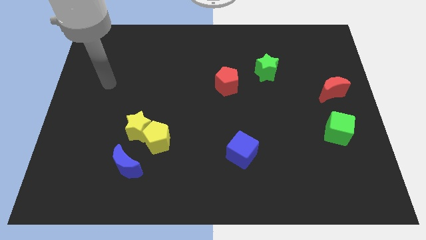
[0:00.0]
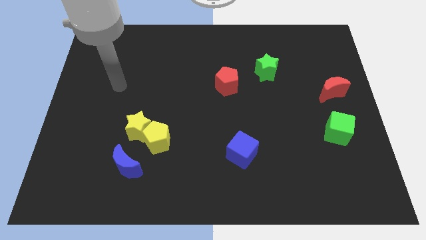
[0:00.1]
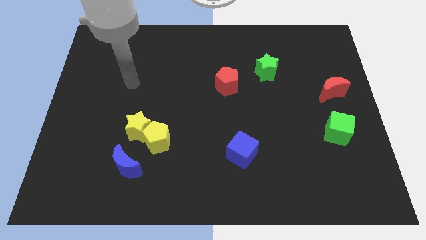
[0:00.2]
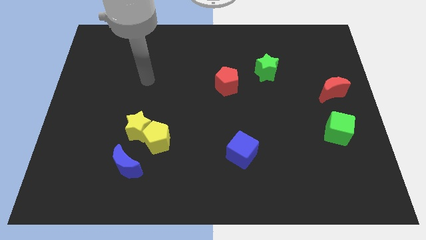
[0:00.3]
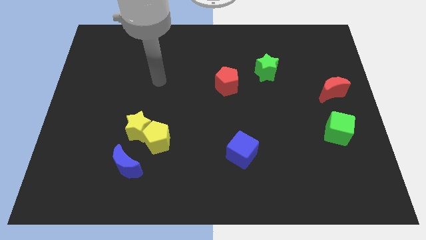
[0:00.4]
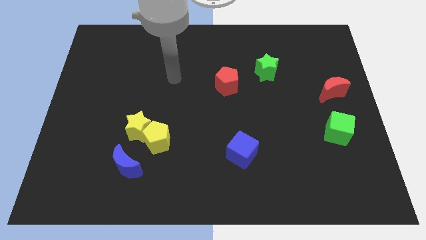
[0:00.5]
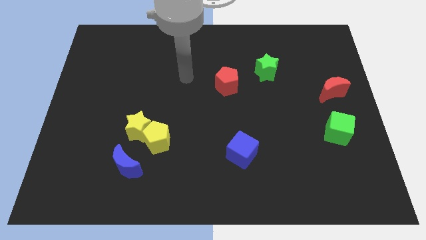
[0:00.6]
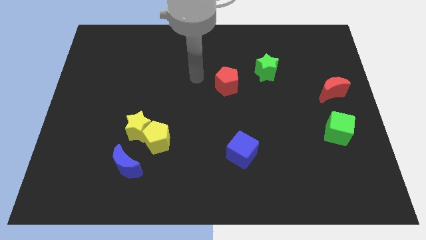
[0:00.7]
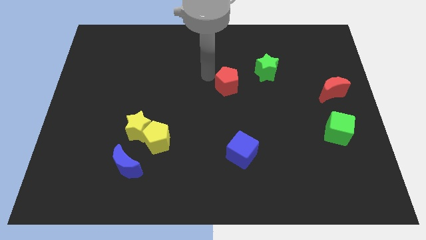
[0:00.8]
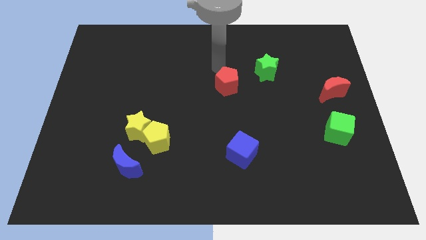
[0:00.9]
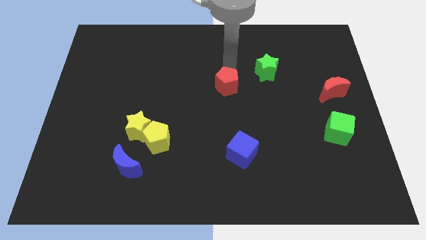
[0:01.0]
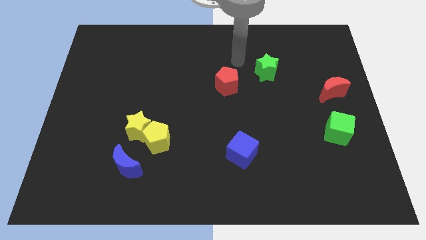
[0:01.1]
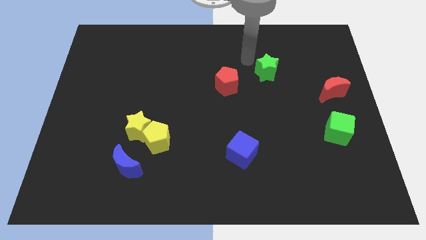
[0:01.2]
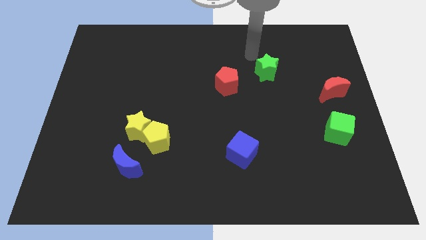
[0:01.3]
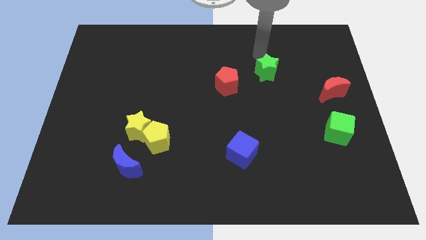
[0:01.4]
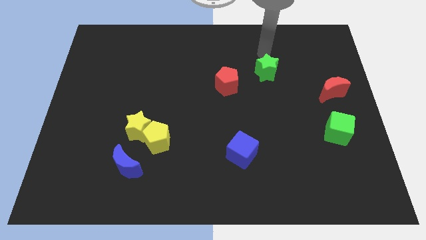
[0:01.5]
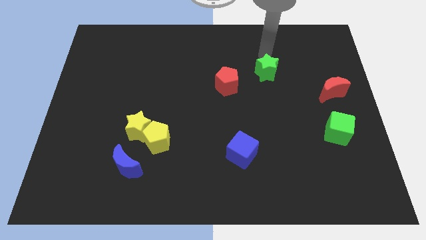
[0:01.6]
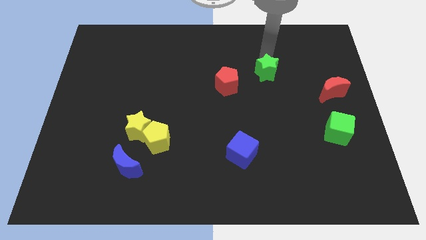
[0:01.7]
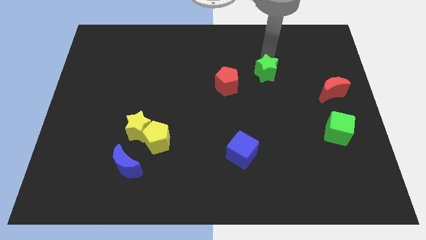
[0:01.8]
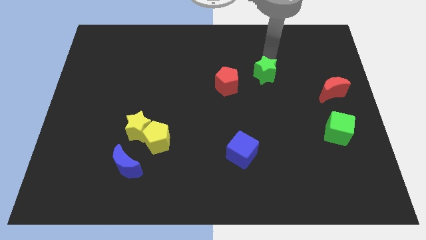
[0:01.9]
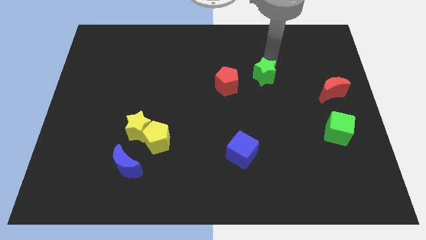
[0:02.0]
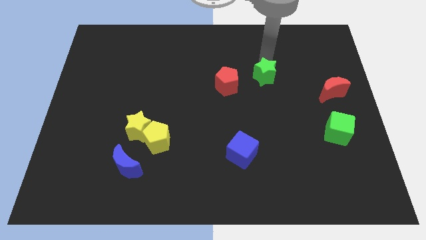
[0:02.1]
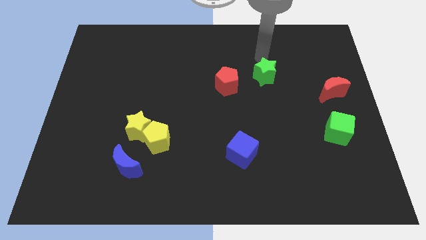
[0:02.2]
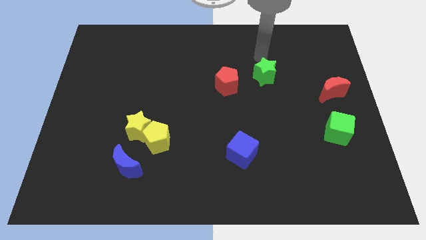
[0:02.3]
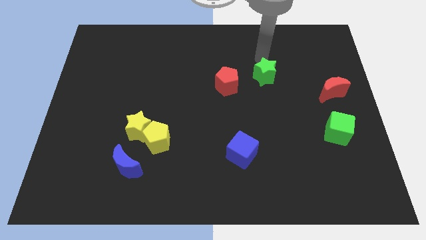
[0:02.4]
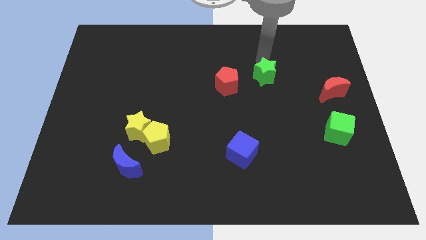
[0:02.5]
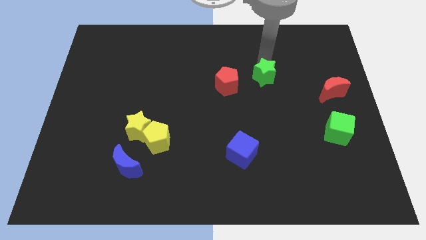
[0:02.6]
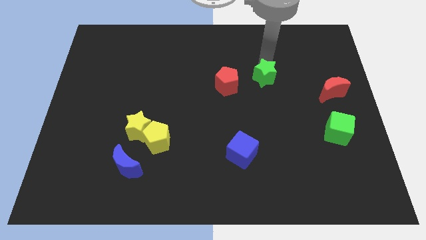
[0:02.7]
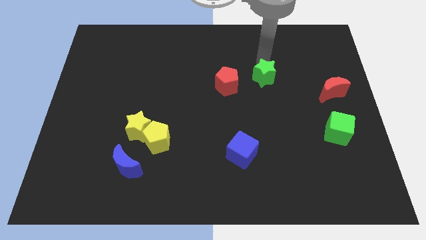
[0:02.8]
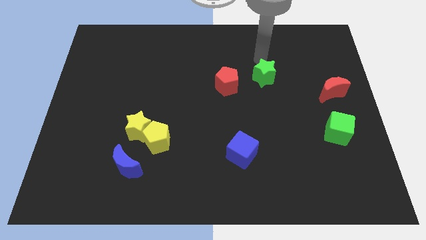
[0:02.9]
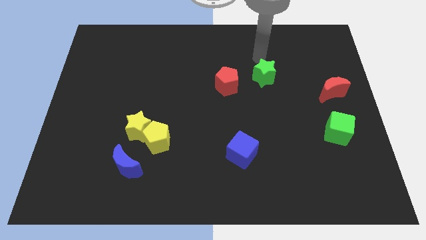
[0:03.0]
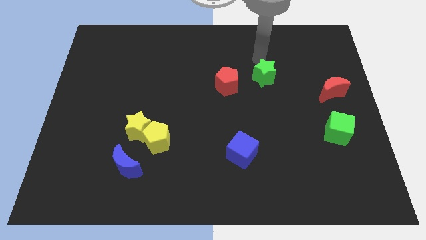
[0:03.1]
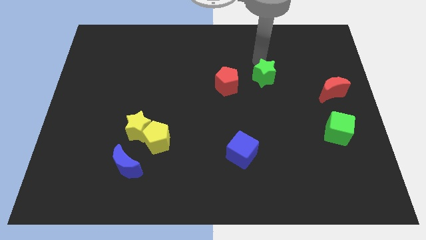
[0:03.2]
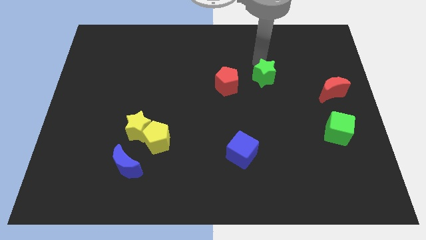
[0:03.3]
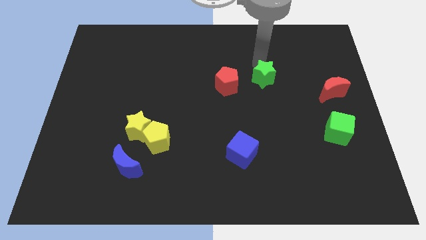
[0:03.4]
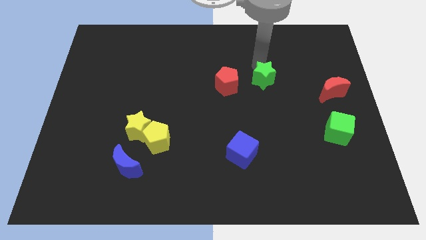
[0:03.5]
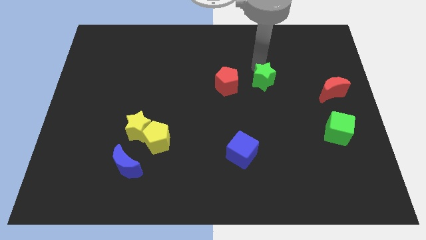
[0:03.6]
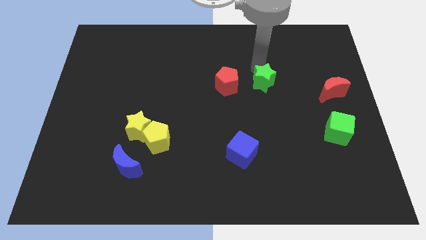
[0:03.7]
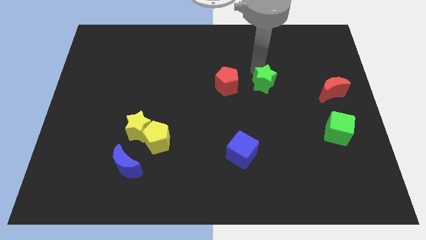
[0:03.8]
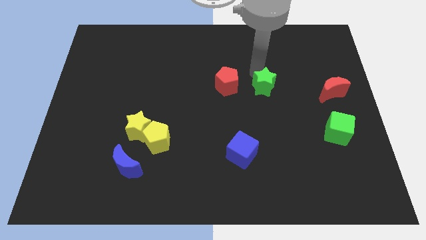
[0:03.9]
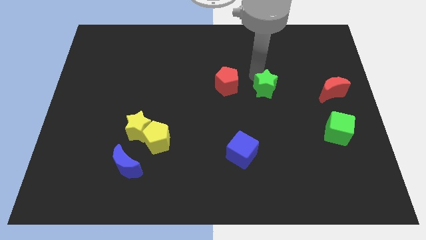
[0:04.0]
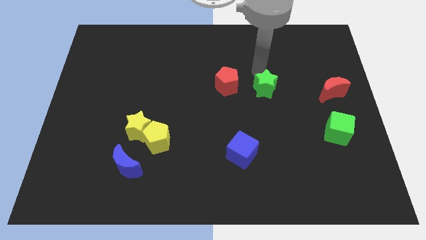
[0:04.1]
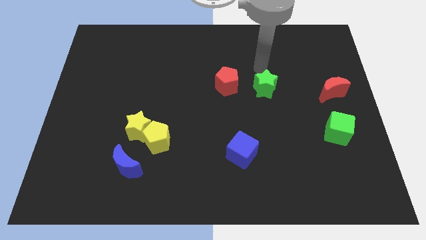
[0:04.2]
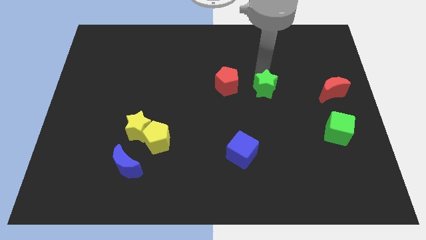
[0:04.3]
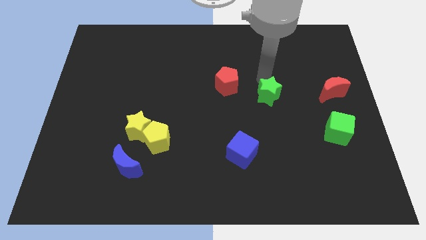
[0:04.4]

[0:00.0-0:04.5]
move the green star a little downwards

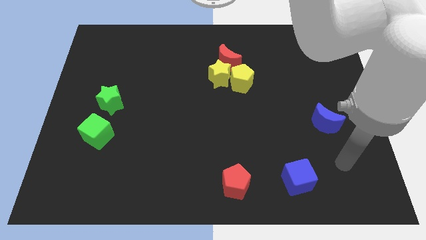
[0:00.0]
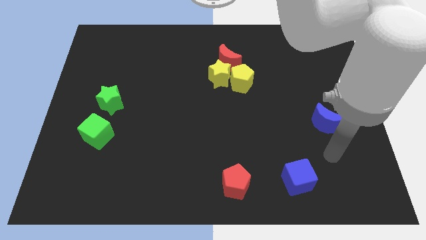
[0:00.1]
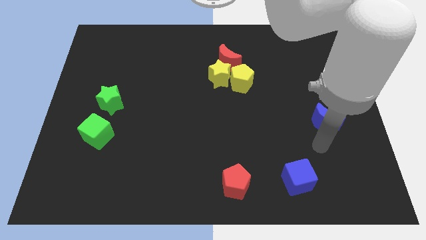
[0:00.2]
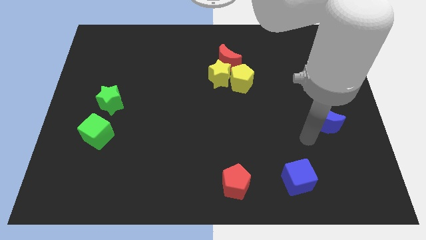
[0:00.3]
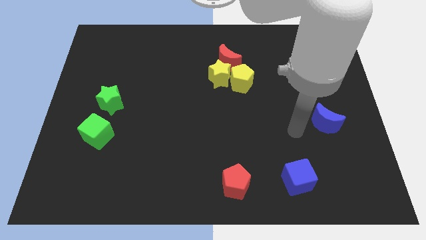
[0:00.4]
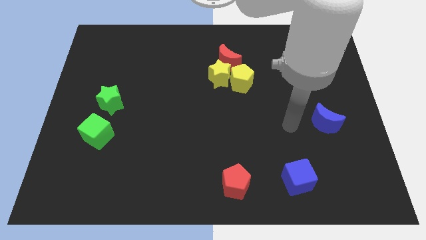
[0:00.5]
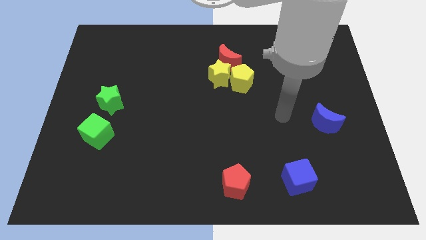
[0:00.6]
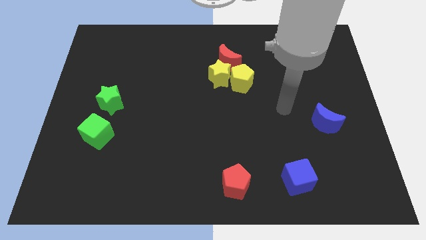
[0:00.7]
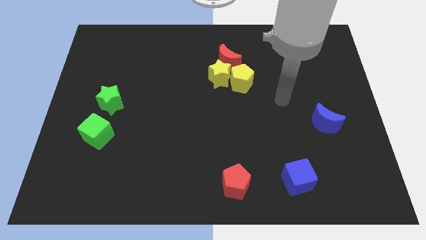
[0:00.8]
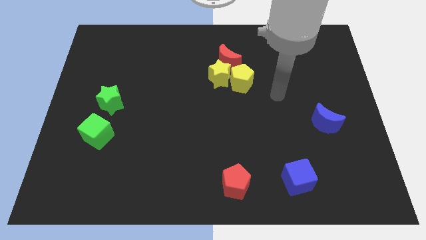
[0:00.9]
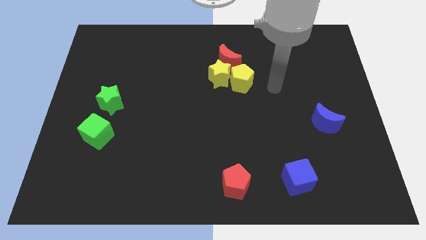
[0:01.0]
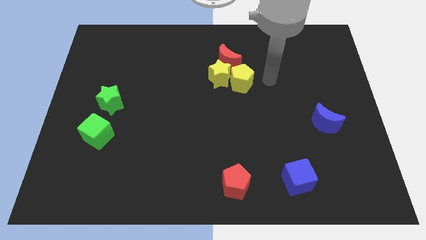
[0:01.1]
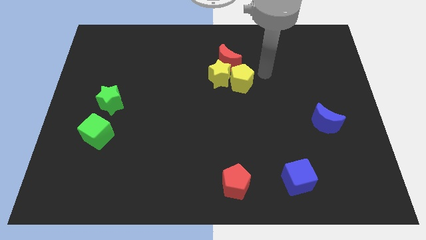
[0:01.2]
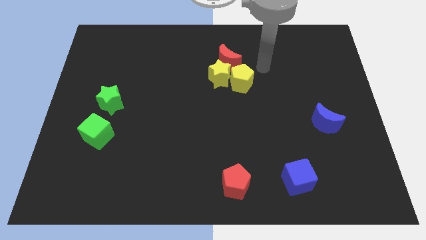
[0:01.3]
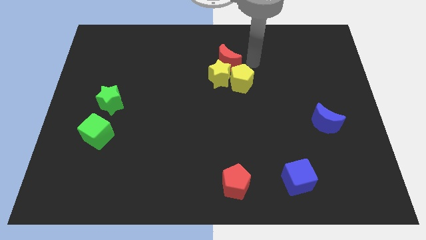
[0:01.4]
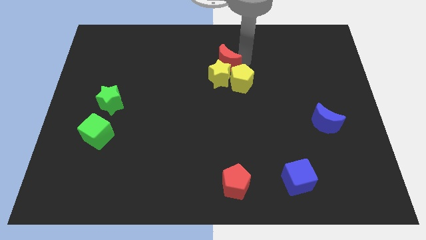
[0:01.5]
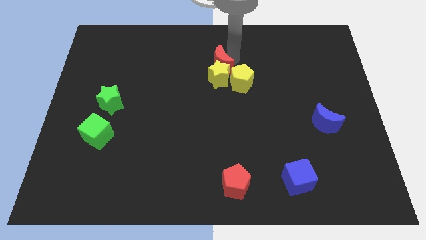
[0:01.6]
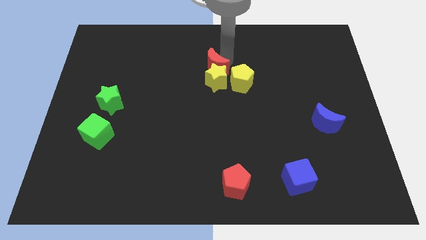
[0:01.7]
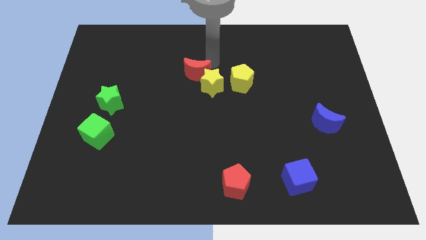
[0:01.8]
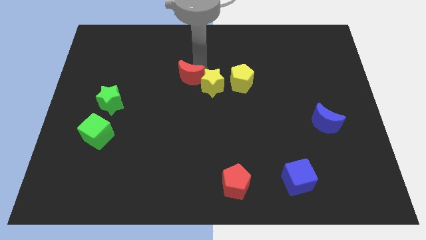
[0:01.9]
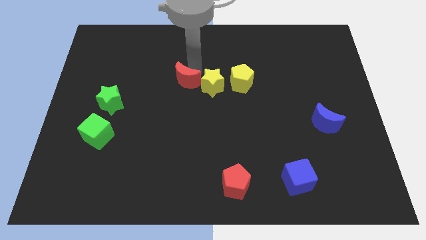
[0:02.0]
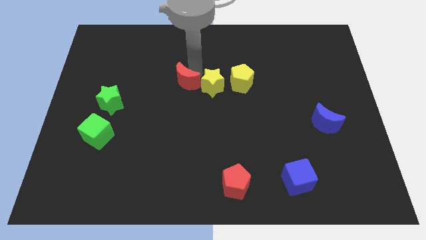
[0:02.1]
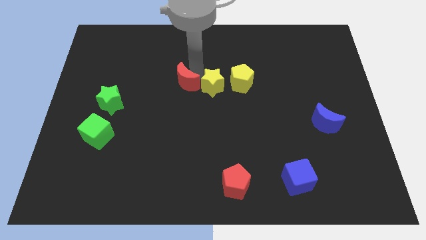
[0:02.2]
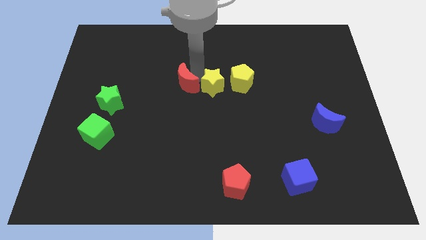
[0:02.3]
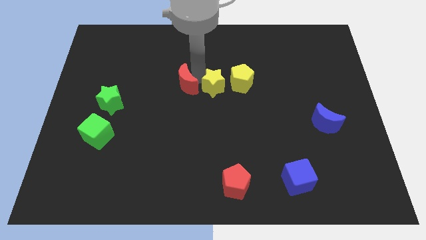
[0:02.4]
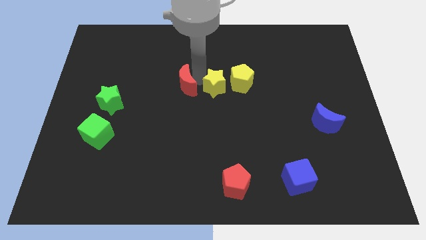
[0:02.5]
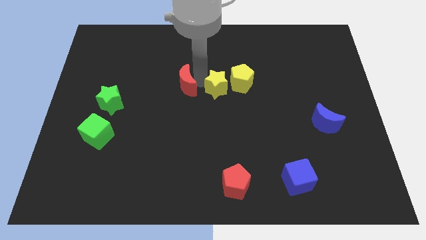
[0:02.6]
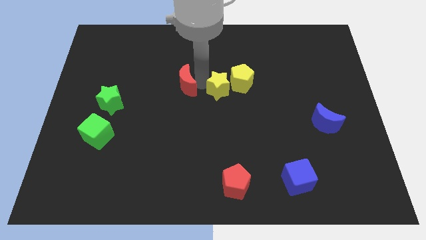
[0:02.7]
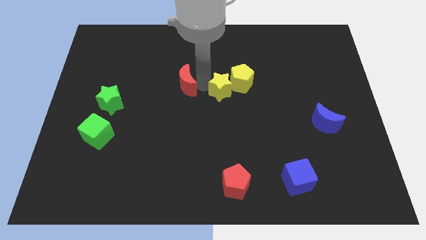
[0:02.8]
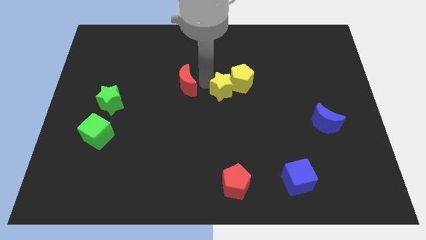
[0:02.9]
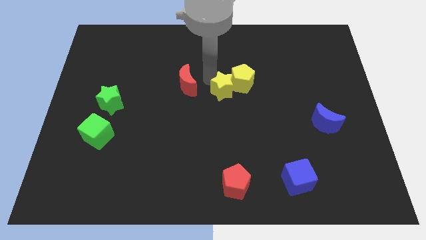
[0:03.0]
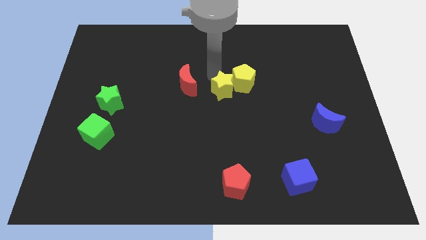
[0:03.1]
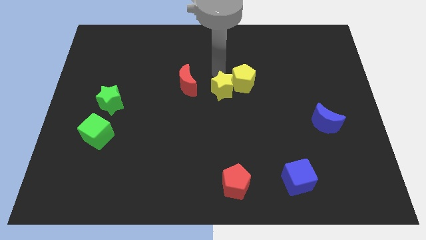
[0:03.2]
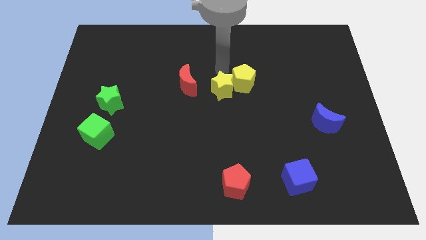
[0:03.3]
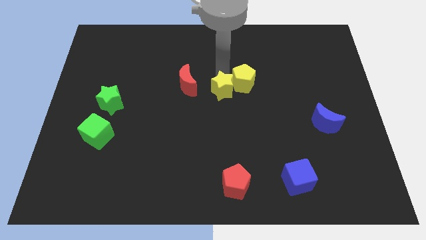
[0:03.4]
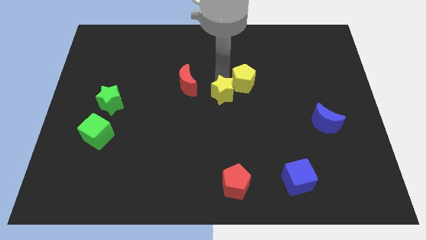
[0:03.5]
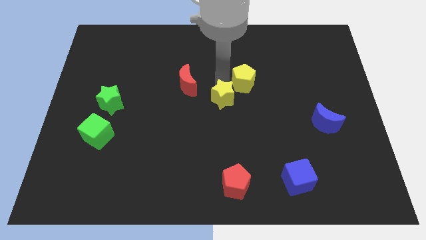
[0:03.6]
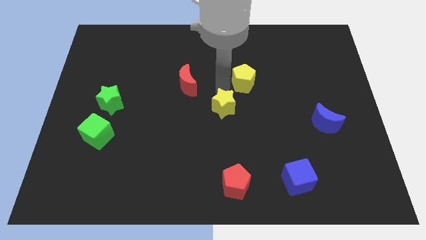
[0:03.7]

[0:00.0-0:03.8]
slide the yellow star a little bit downwards
